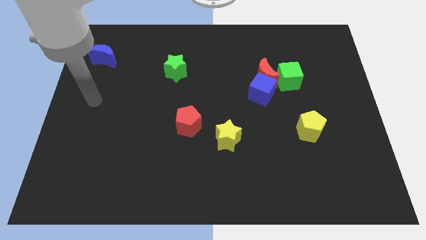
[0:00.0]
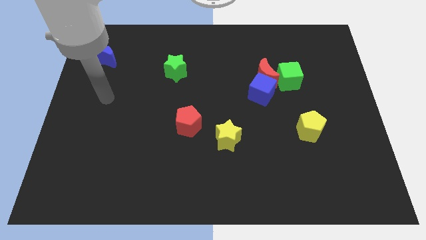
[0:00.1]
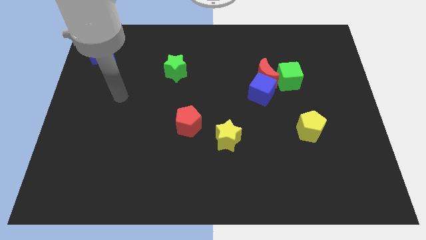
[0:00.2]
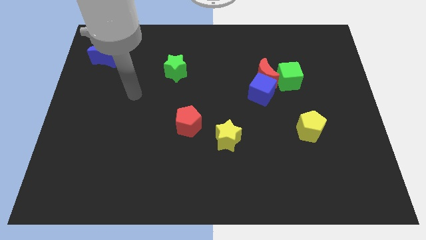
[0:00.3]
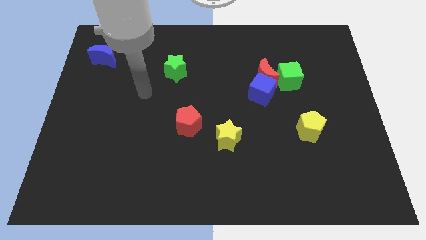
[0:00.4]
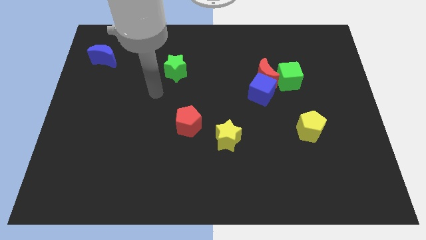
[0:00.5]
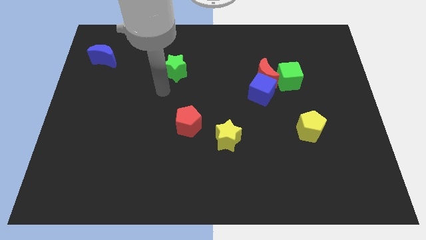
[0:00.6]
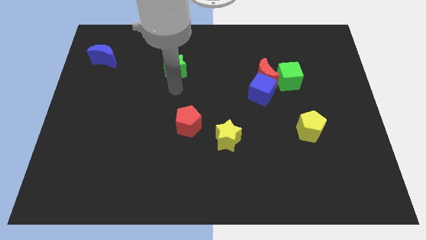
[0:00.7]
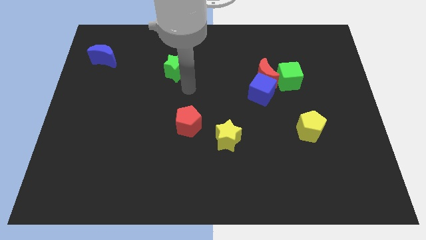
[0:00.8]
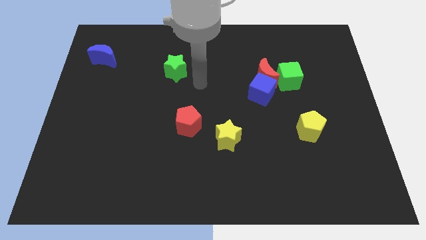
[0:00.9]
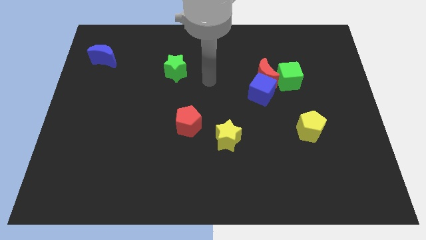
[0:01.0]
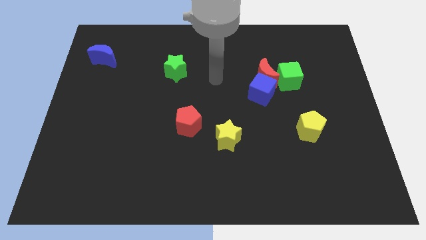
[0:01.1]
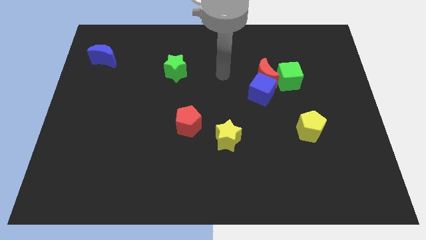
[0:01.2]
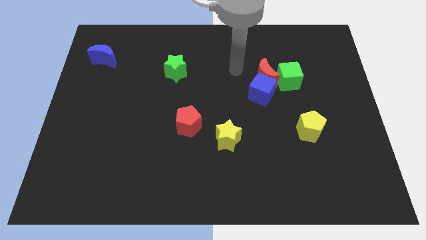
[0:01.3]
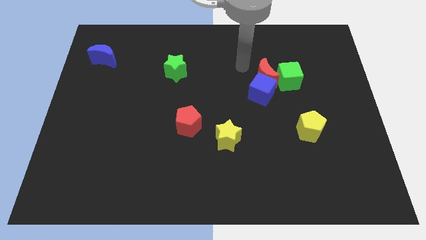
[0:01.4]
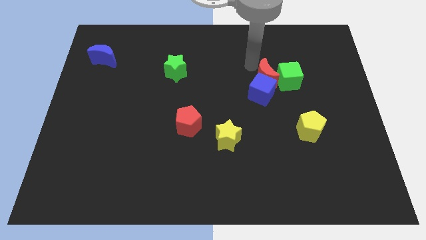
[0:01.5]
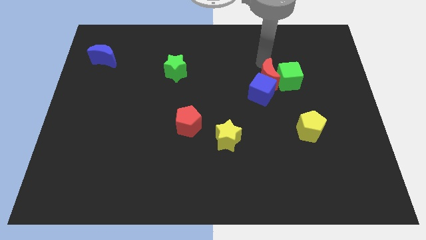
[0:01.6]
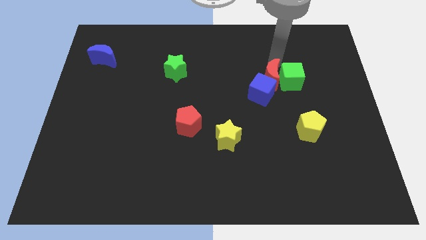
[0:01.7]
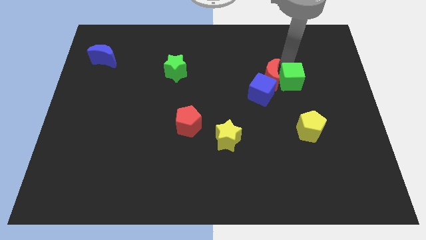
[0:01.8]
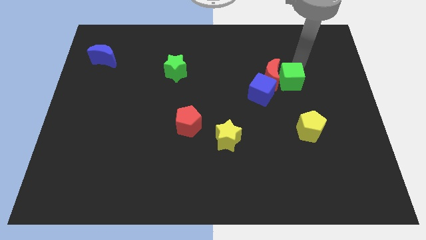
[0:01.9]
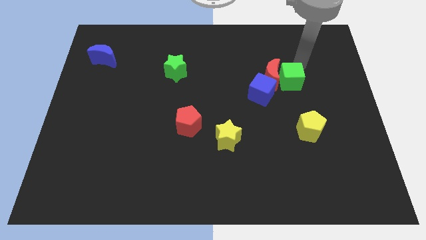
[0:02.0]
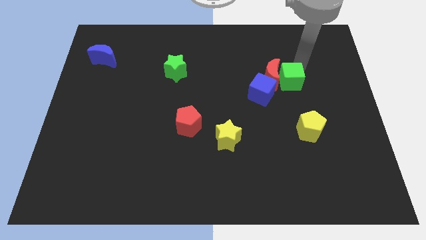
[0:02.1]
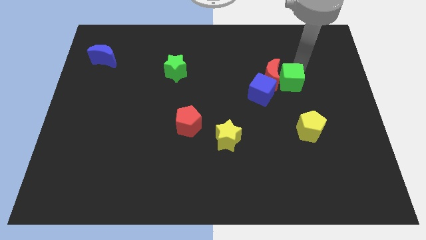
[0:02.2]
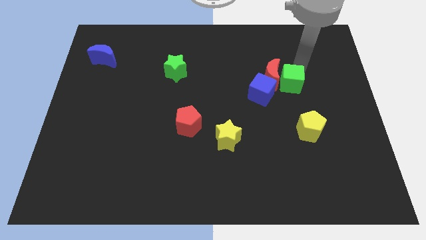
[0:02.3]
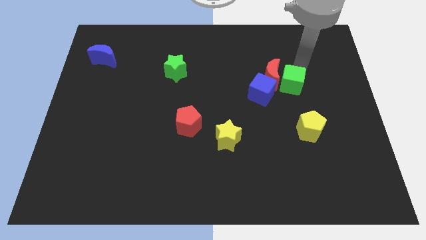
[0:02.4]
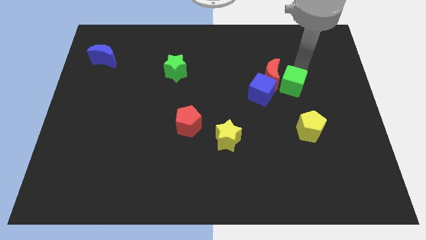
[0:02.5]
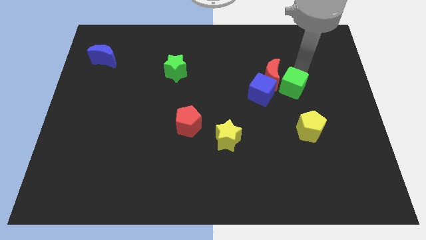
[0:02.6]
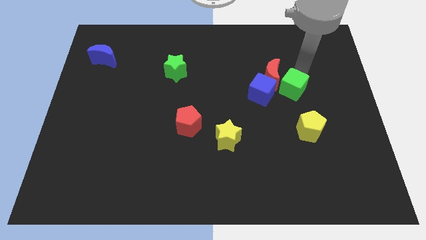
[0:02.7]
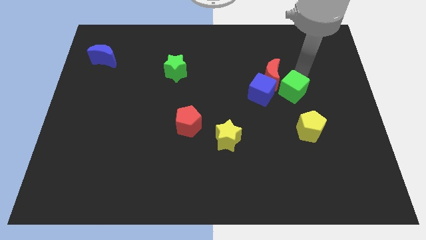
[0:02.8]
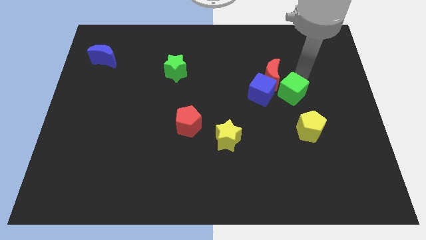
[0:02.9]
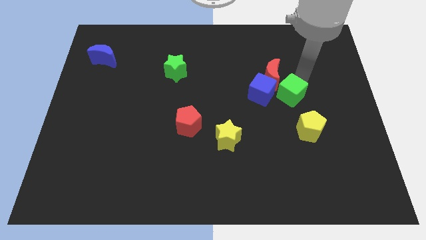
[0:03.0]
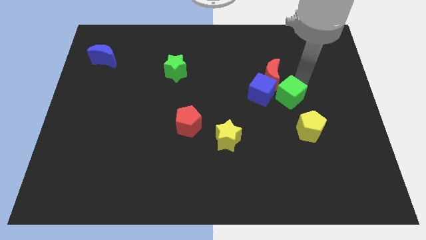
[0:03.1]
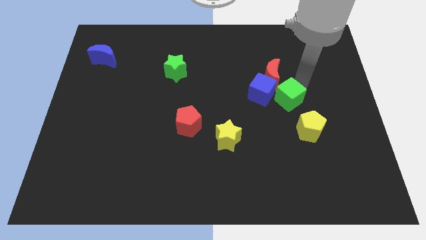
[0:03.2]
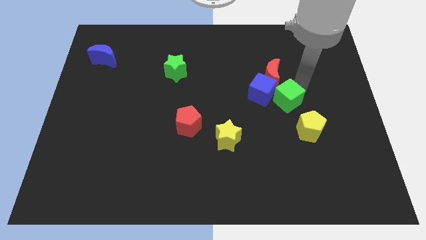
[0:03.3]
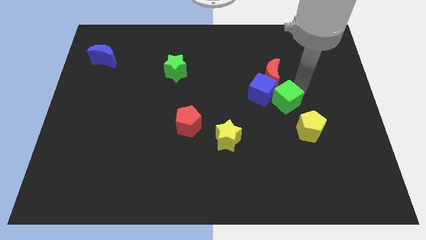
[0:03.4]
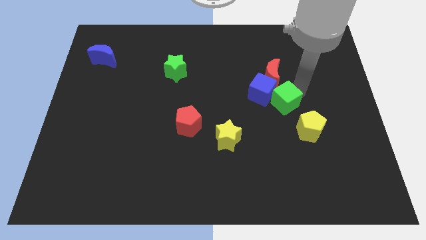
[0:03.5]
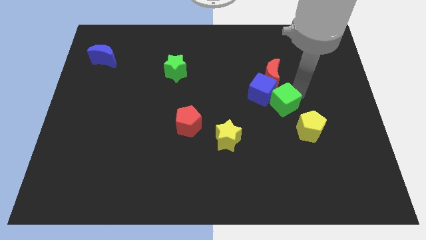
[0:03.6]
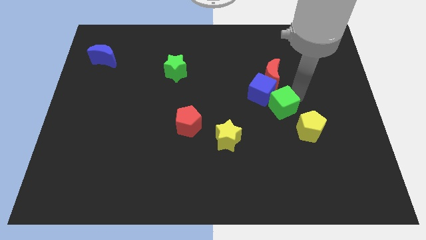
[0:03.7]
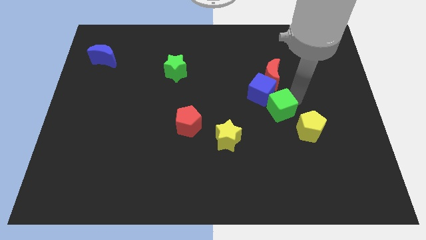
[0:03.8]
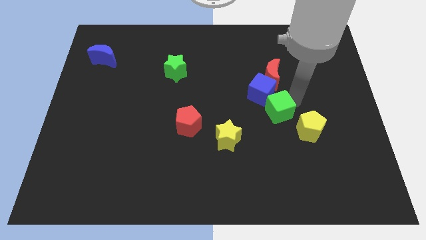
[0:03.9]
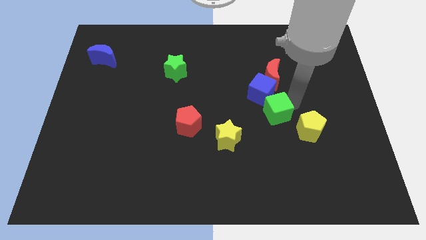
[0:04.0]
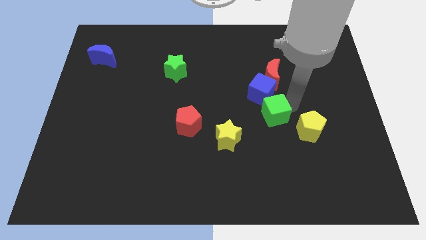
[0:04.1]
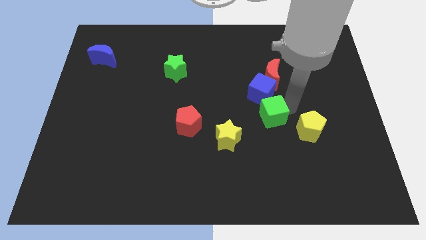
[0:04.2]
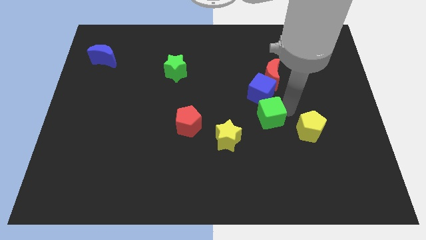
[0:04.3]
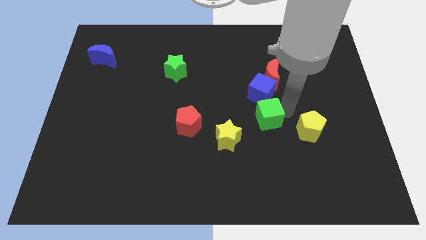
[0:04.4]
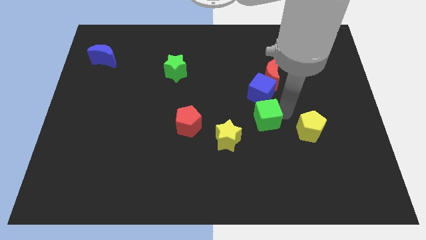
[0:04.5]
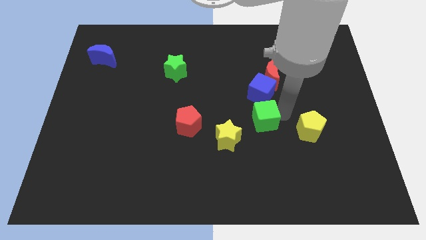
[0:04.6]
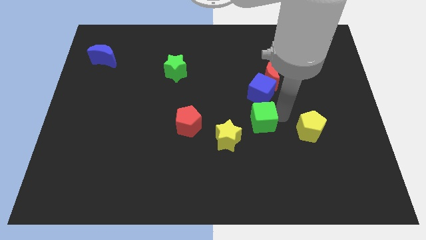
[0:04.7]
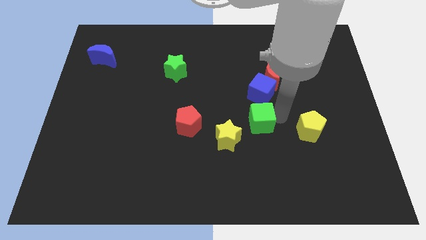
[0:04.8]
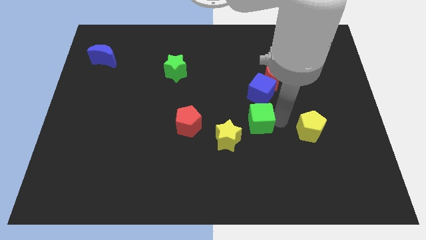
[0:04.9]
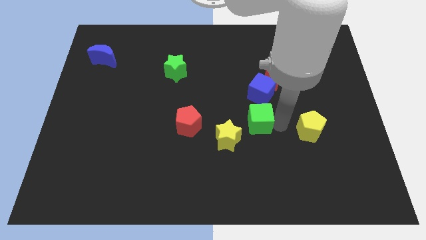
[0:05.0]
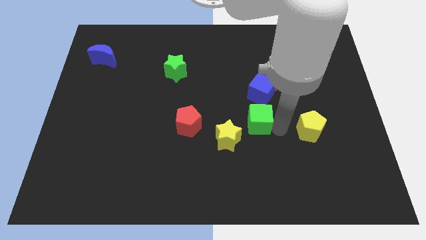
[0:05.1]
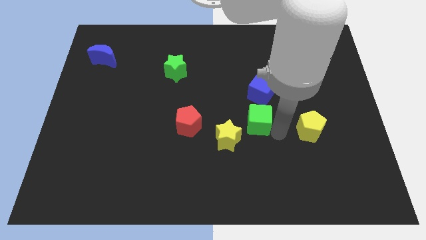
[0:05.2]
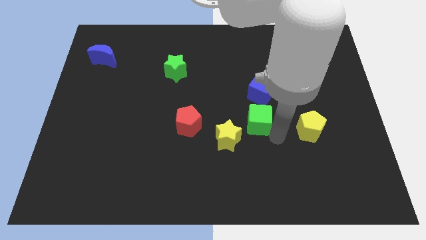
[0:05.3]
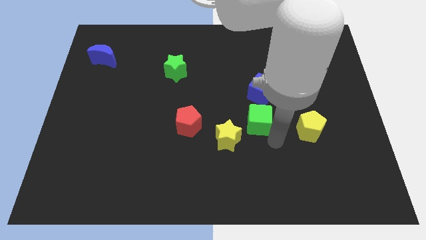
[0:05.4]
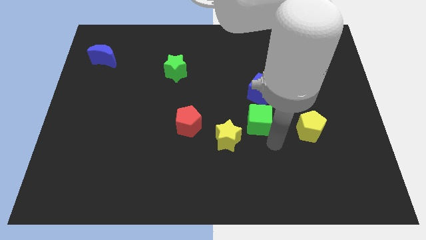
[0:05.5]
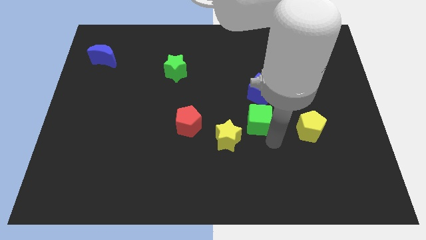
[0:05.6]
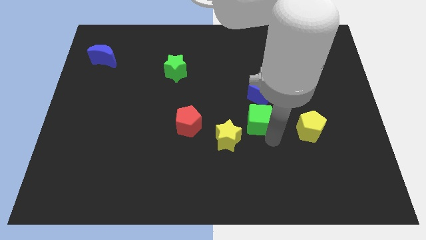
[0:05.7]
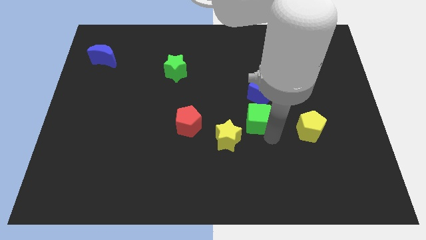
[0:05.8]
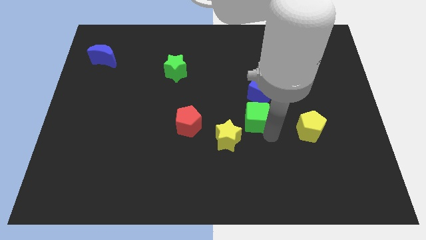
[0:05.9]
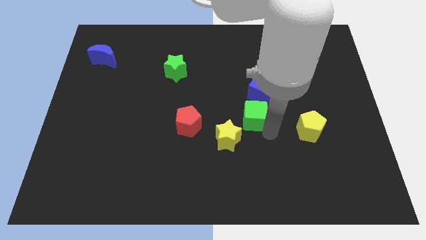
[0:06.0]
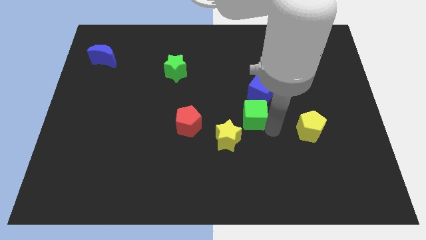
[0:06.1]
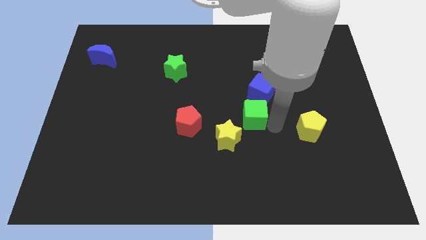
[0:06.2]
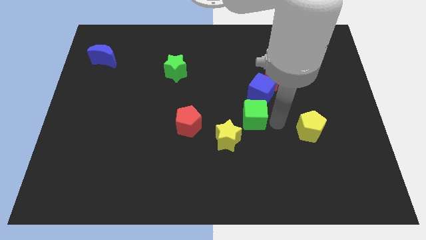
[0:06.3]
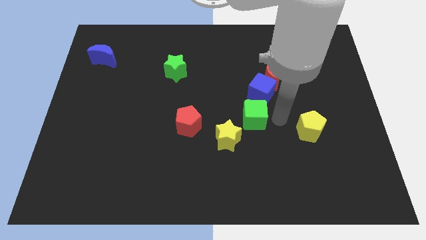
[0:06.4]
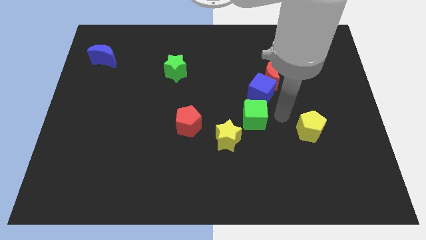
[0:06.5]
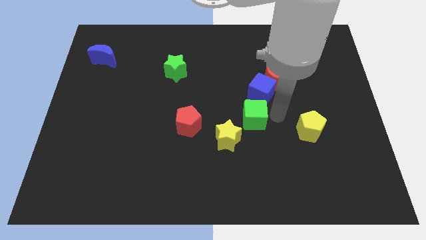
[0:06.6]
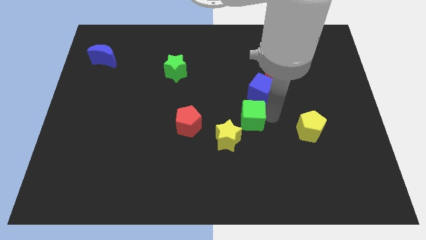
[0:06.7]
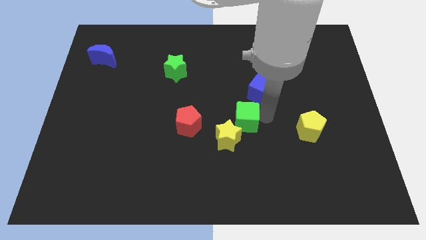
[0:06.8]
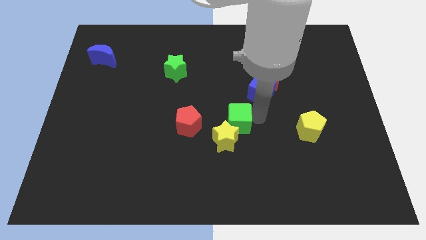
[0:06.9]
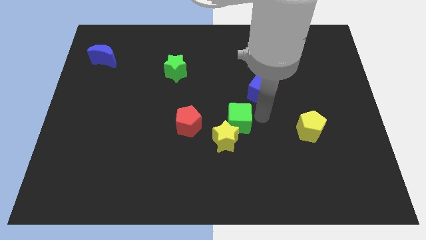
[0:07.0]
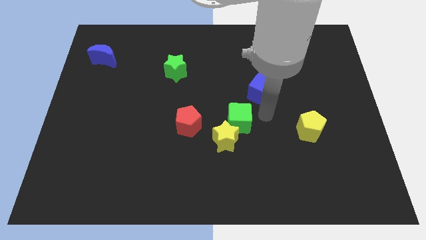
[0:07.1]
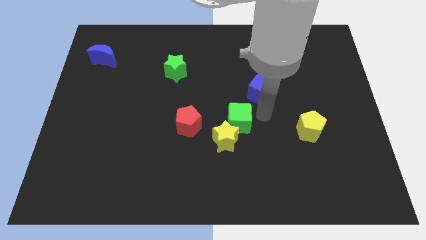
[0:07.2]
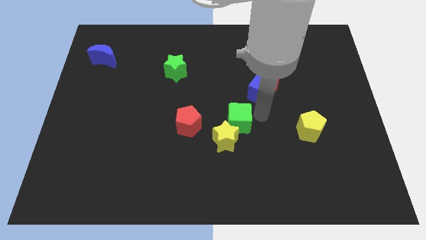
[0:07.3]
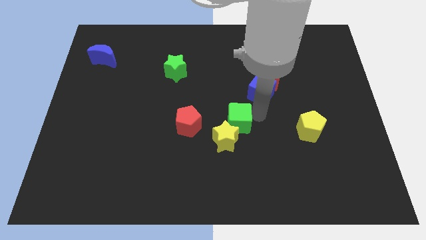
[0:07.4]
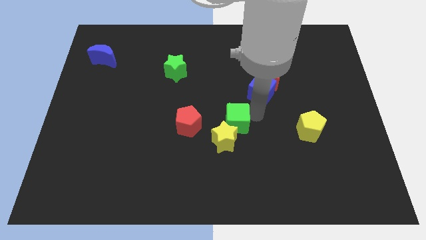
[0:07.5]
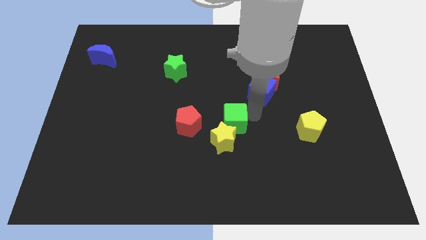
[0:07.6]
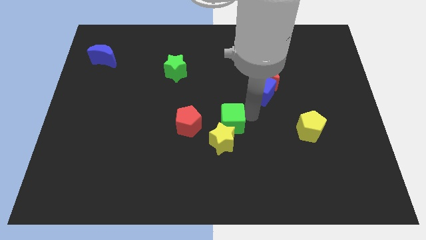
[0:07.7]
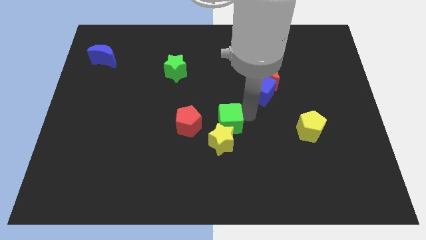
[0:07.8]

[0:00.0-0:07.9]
move the green cube downwards and left
